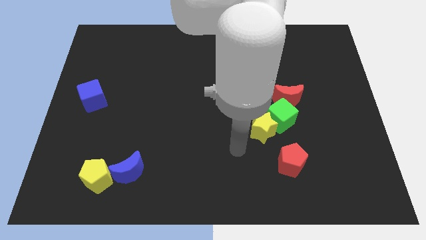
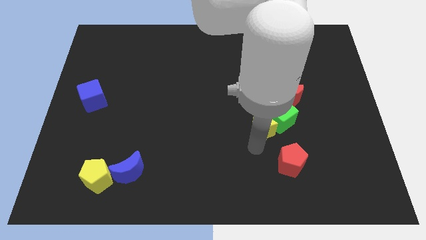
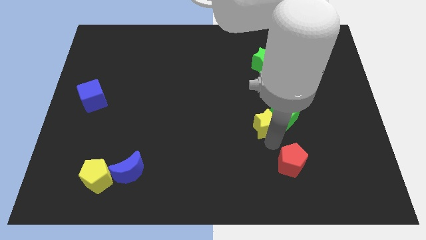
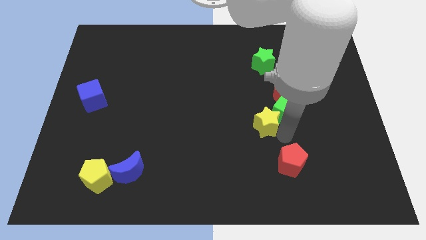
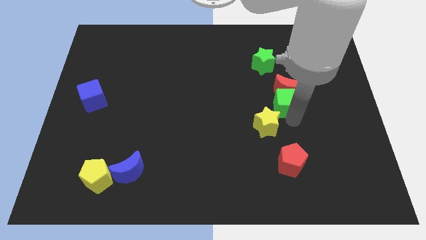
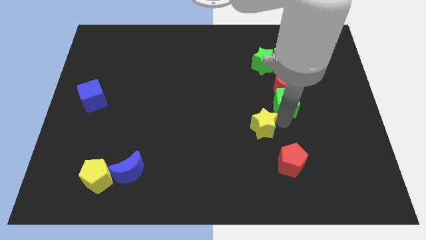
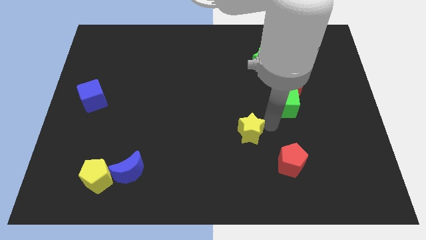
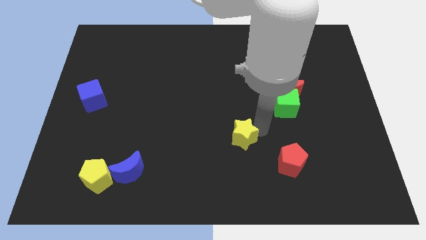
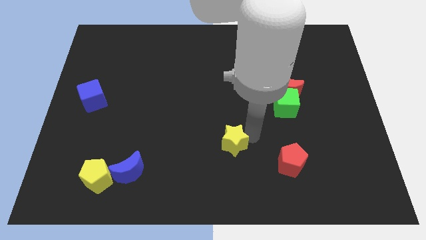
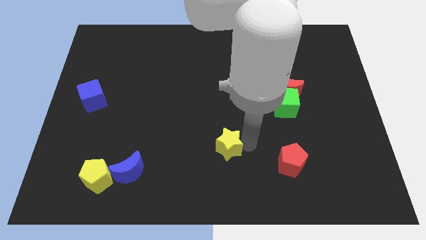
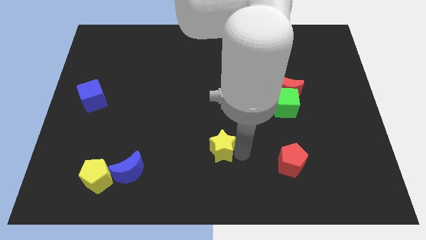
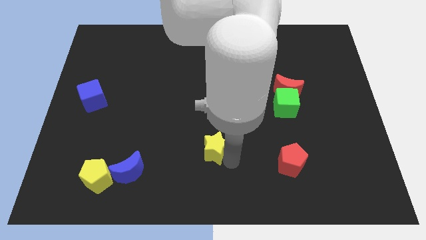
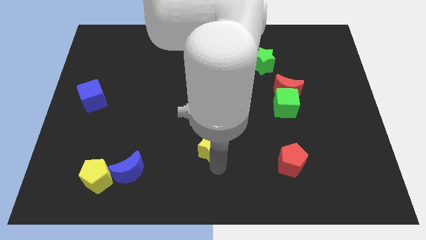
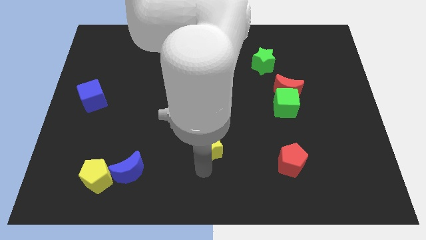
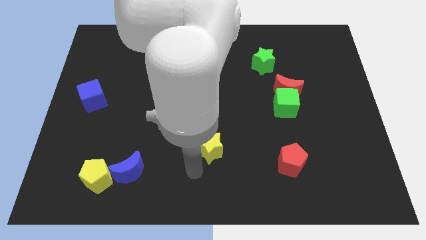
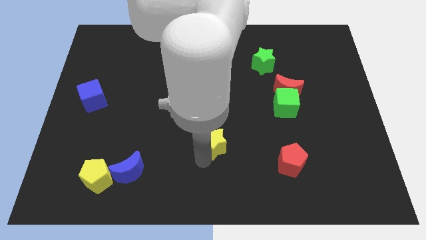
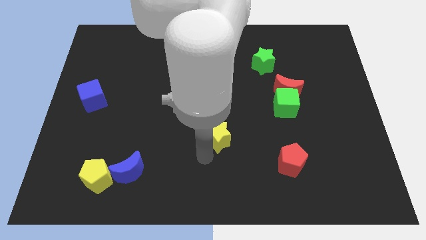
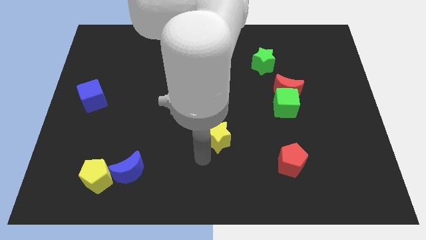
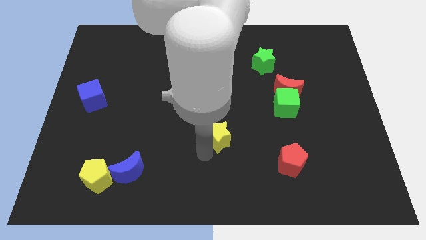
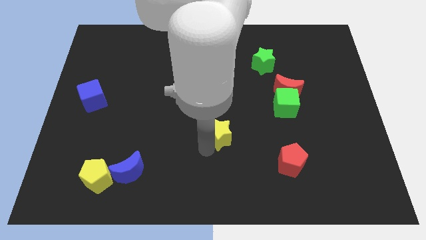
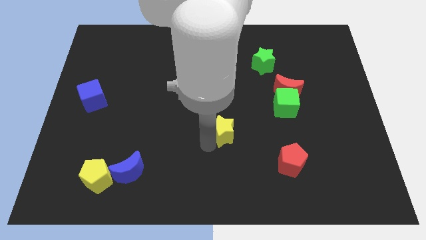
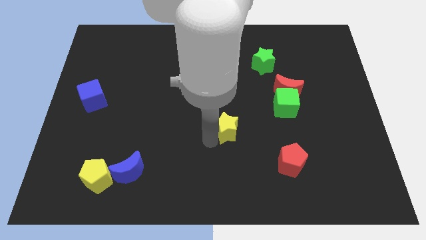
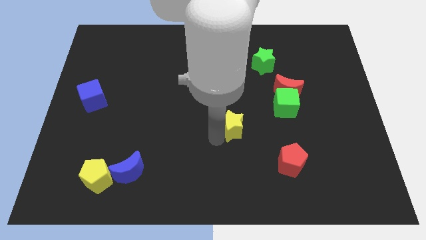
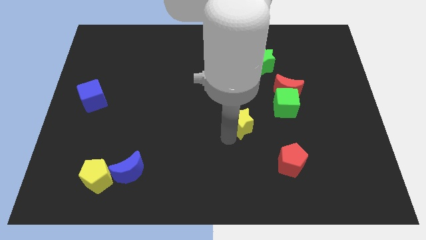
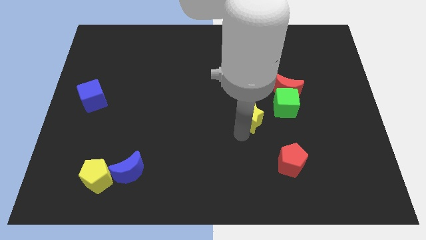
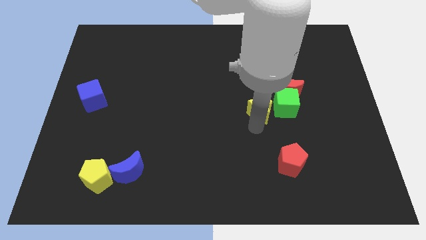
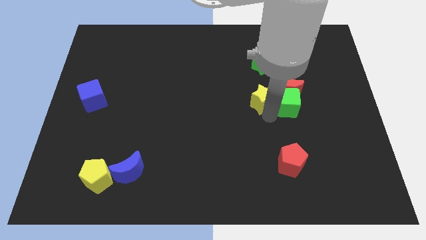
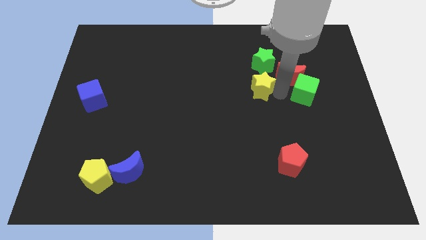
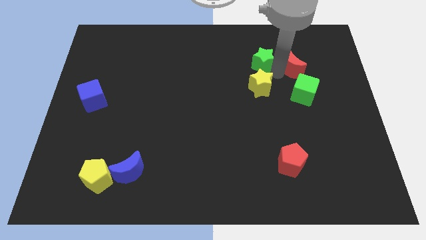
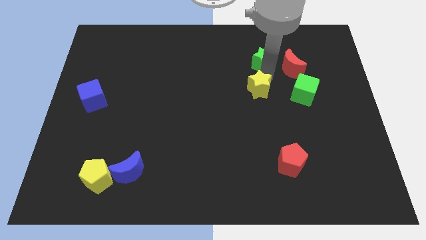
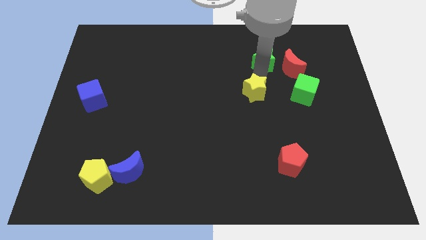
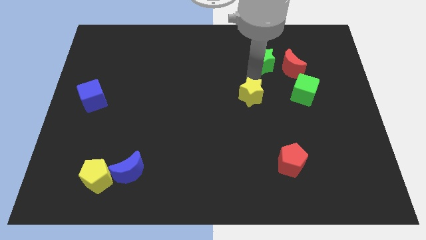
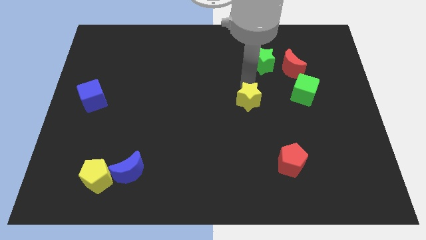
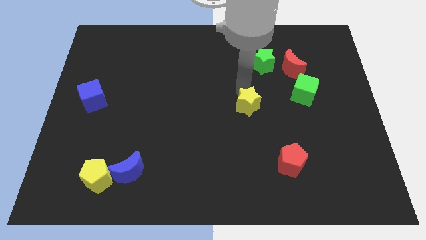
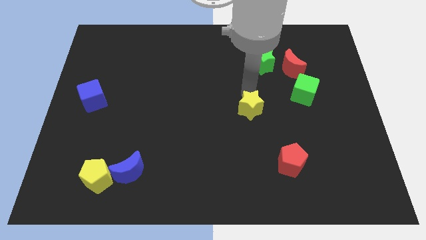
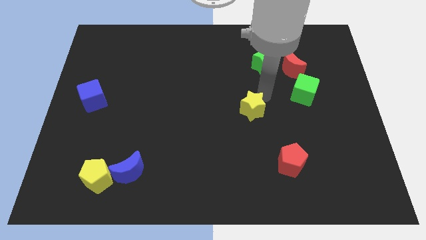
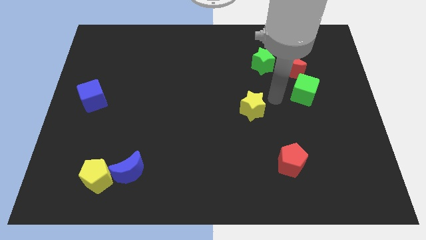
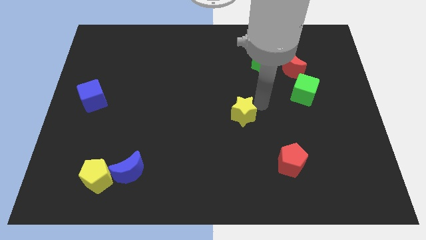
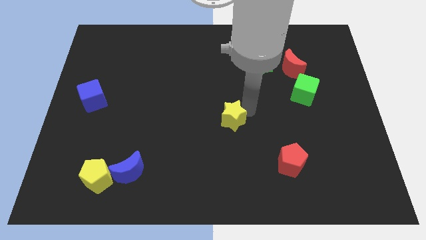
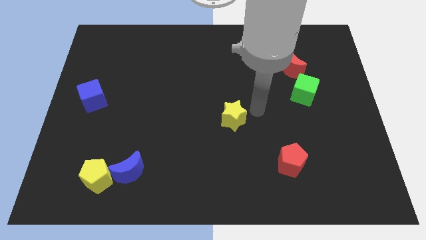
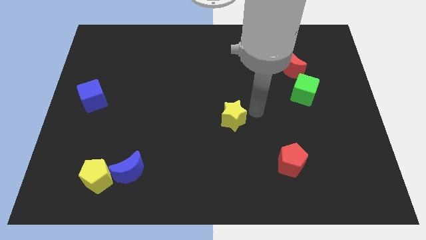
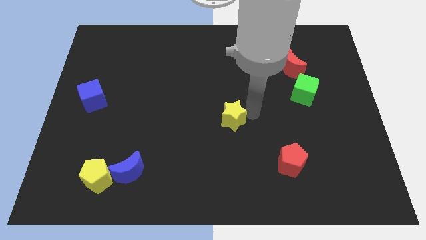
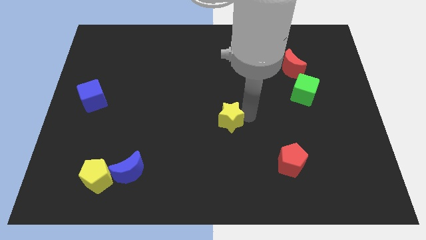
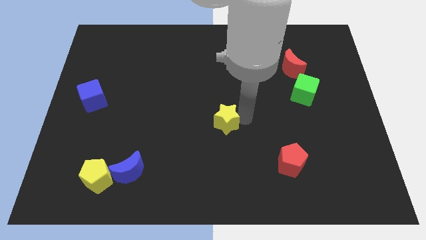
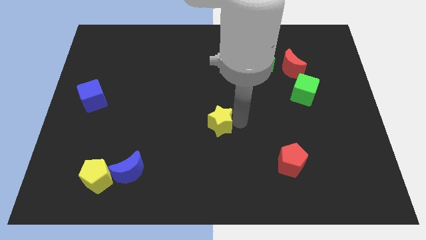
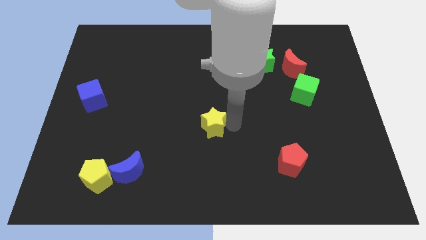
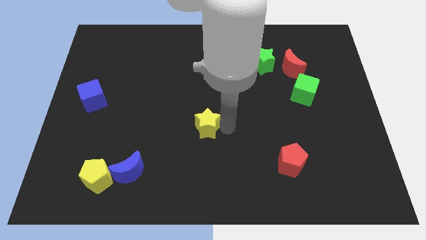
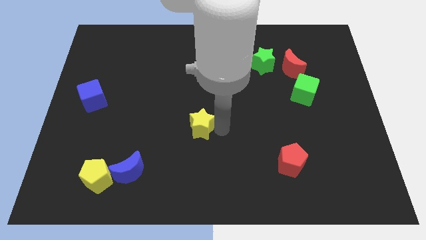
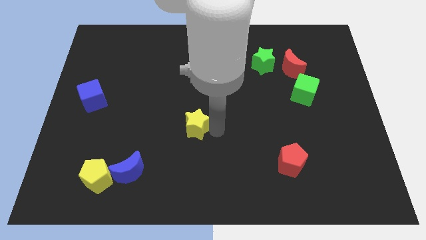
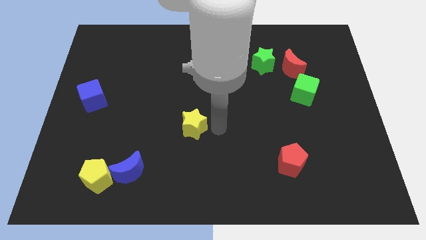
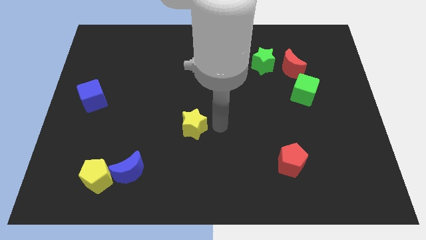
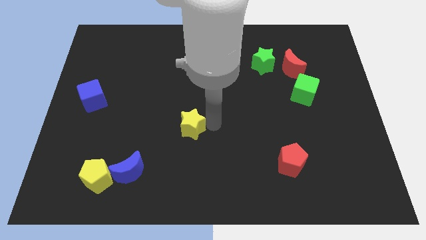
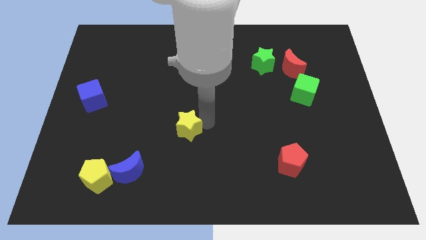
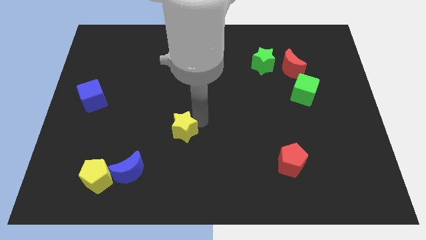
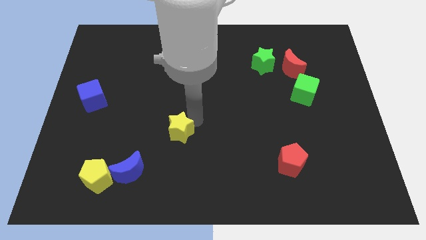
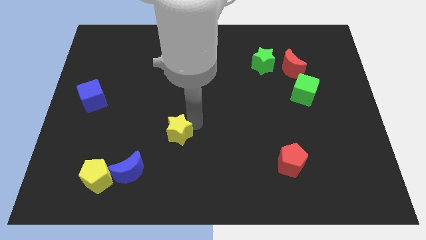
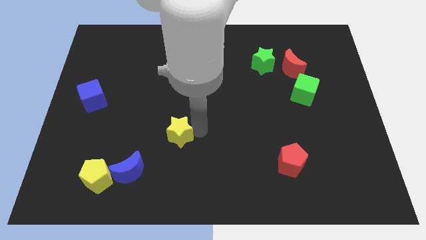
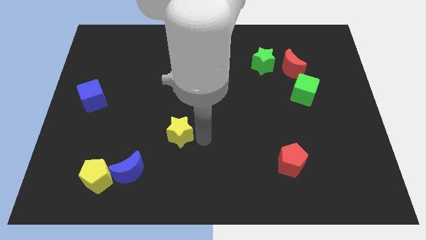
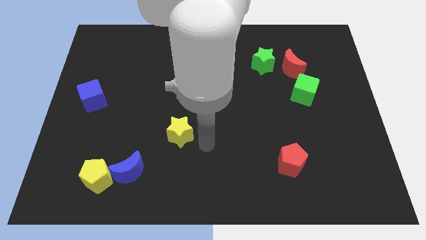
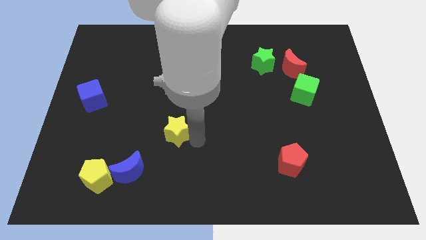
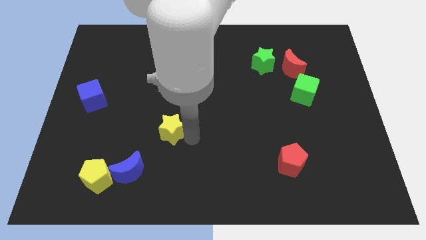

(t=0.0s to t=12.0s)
move the yellow star left

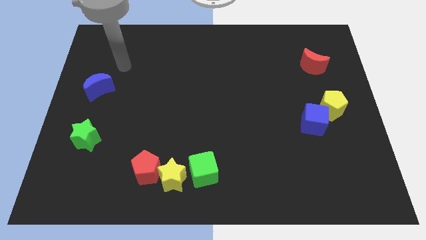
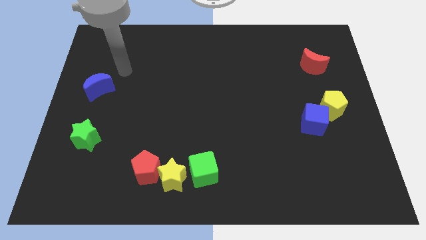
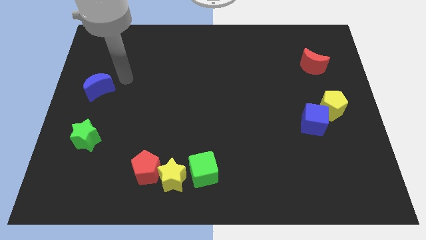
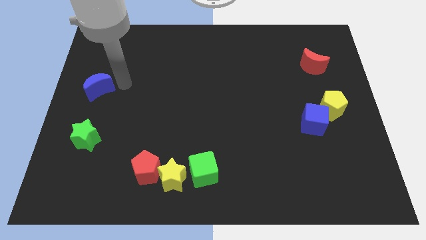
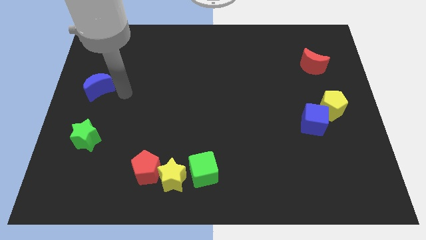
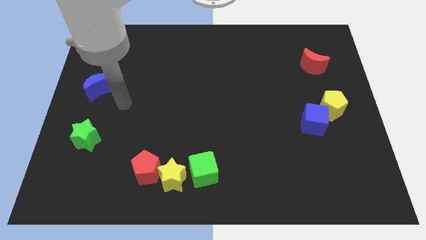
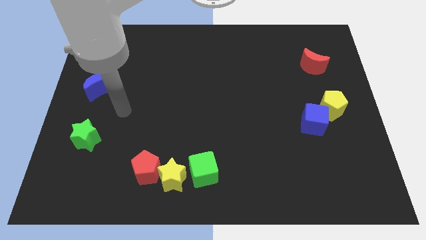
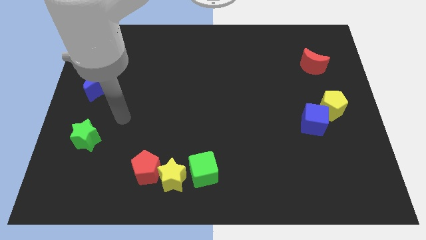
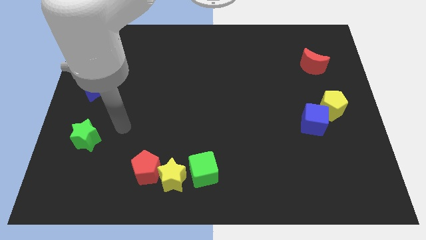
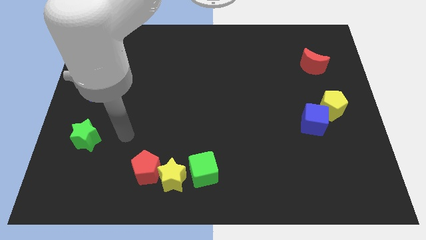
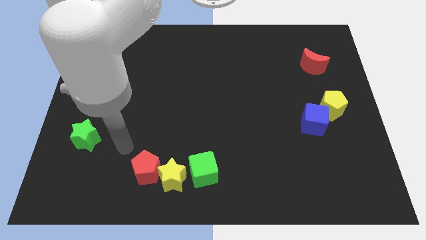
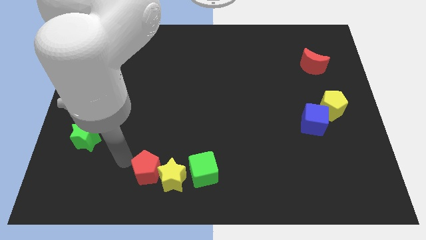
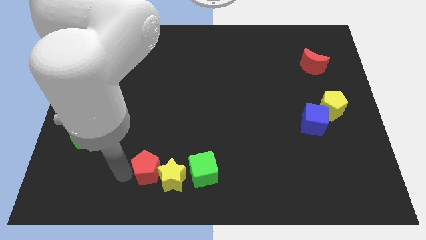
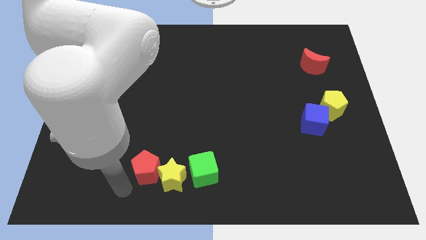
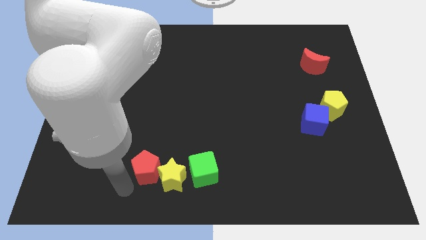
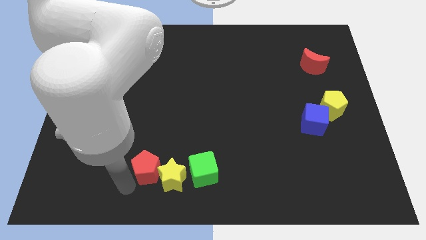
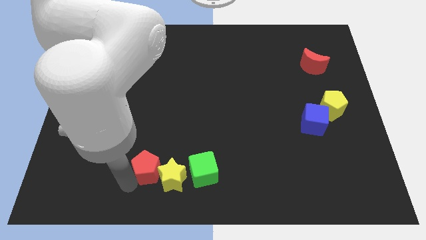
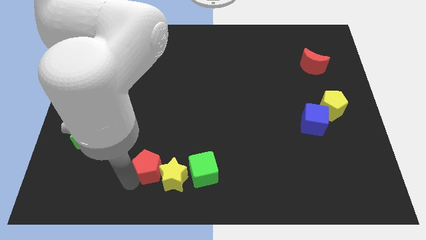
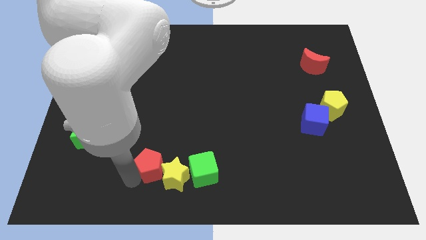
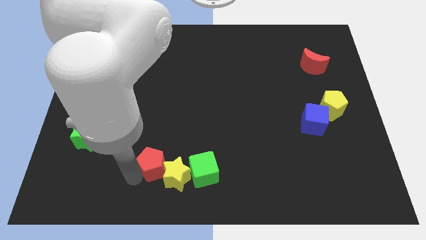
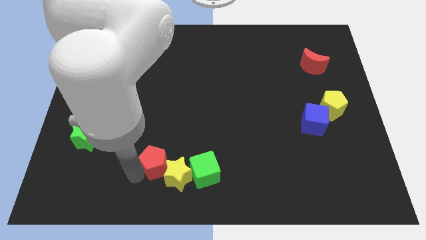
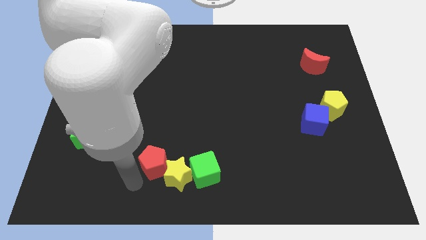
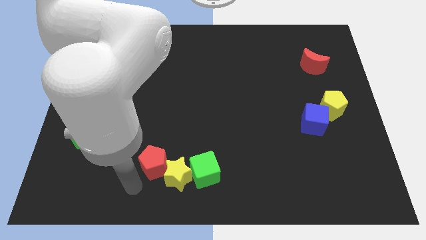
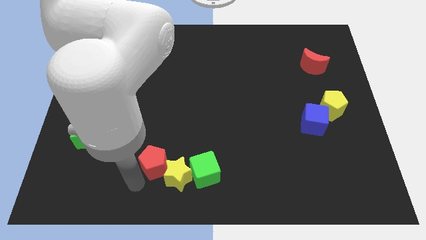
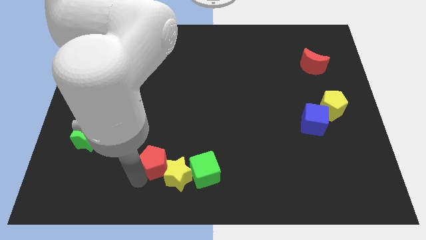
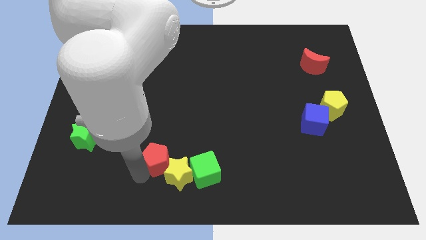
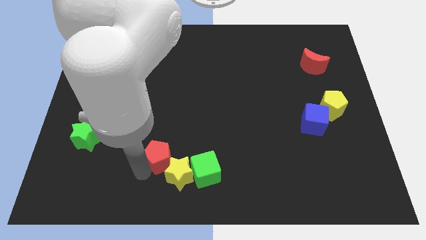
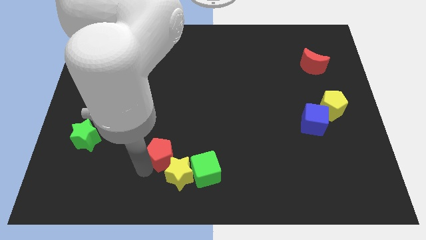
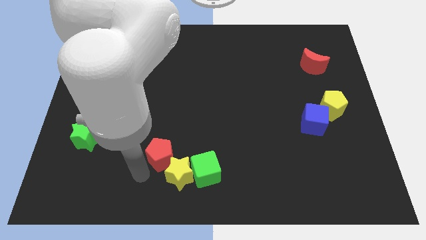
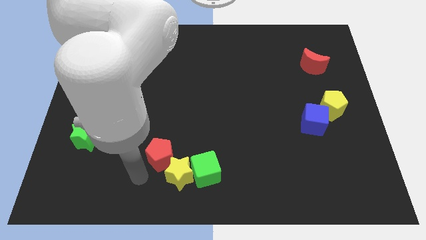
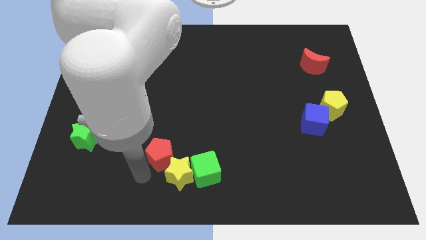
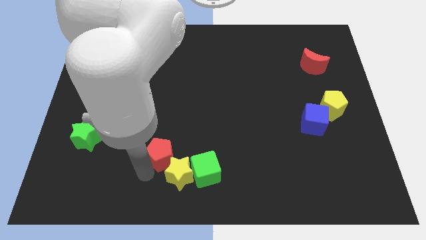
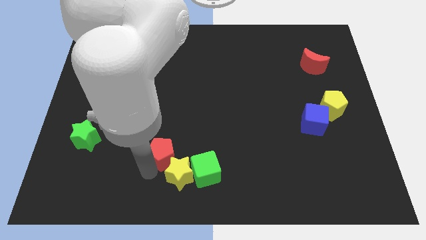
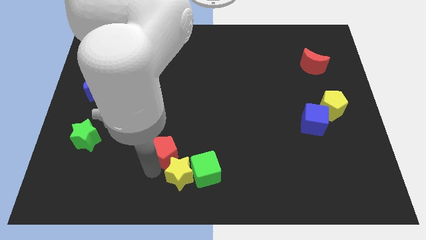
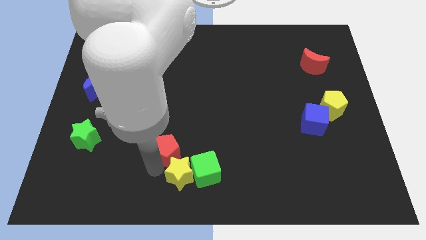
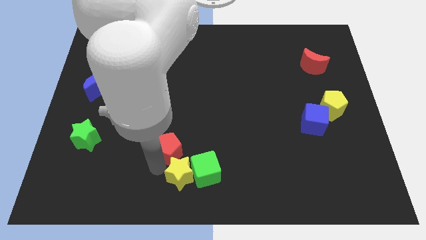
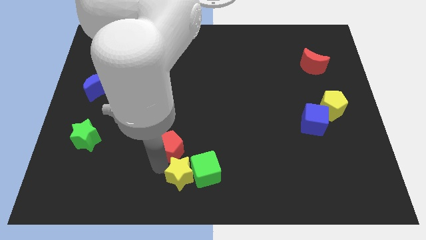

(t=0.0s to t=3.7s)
slightly move the red pentagon up and then to the right
